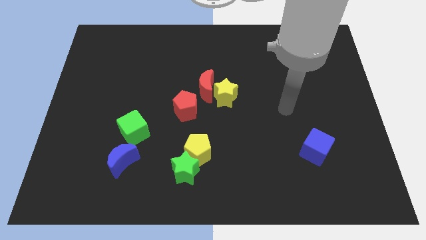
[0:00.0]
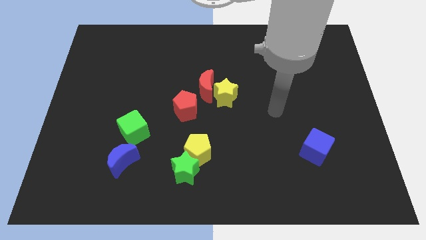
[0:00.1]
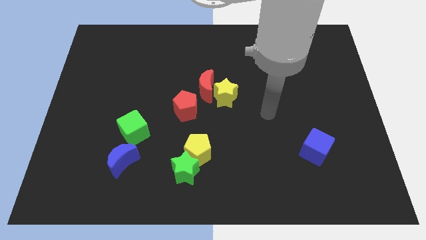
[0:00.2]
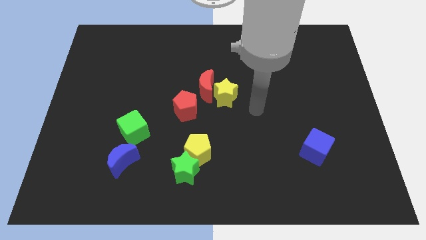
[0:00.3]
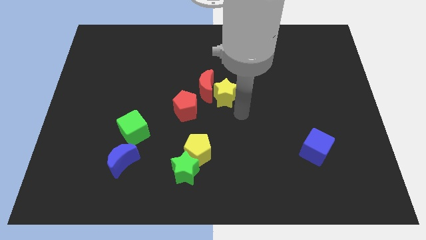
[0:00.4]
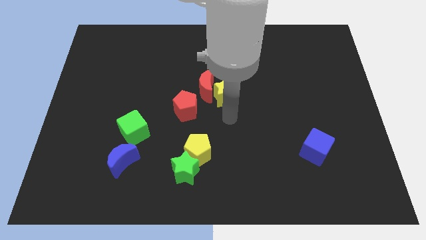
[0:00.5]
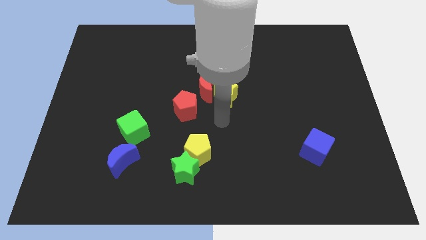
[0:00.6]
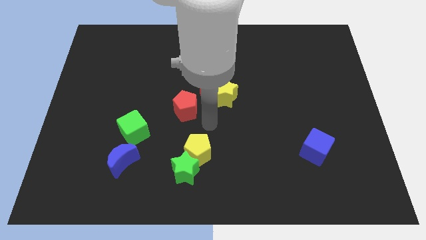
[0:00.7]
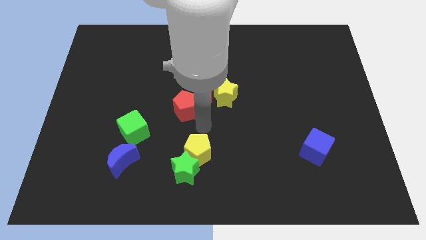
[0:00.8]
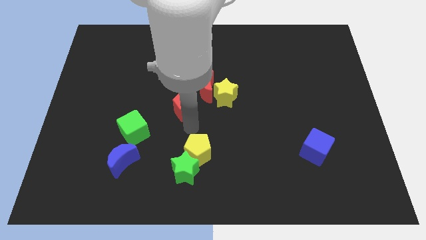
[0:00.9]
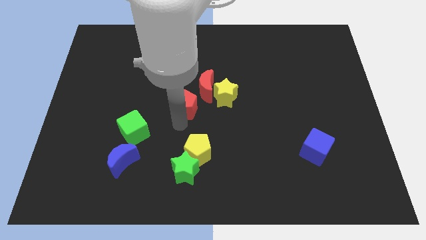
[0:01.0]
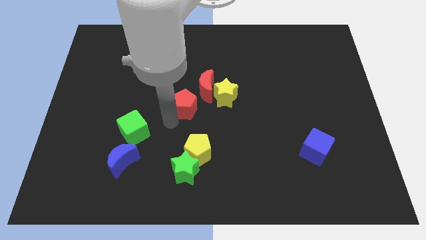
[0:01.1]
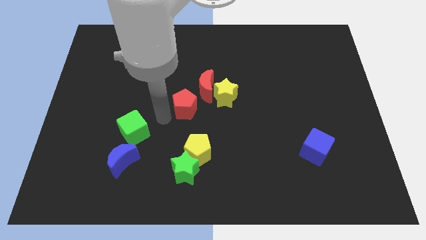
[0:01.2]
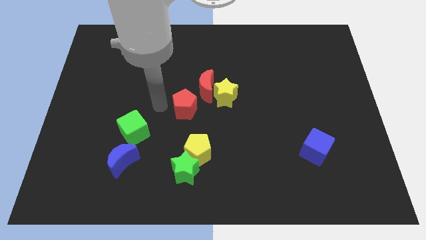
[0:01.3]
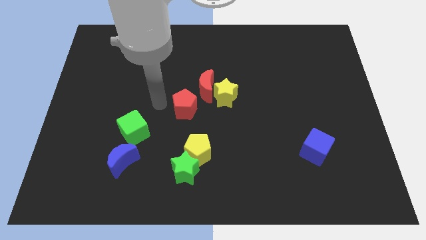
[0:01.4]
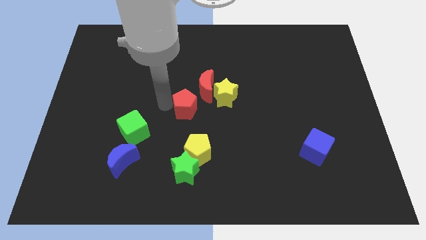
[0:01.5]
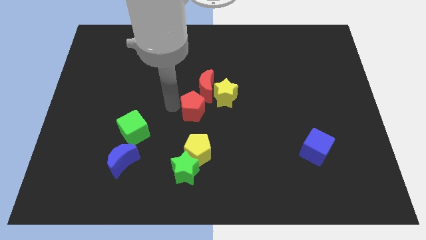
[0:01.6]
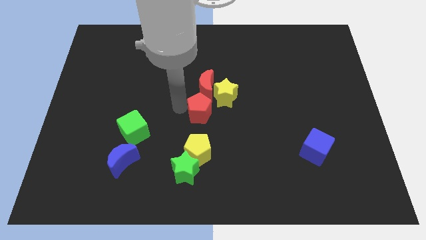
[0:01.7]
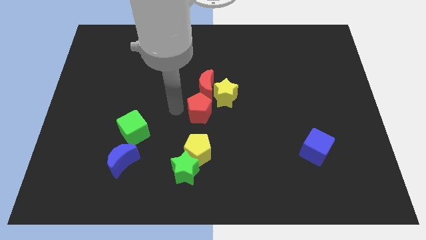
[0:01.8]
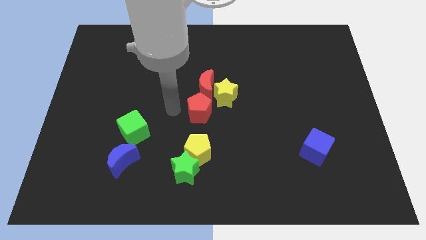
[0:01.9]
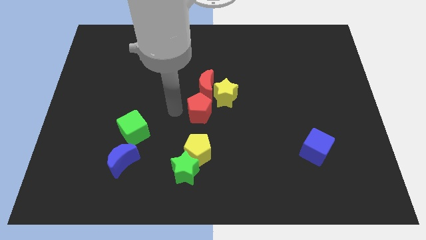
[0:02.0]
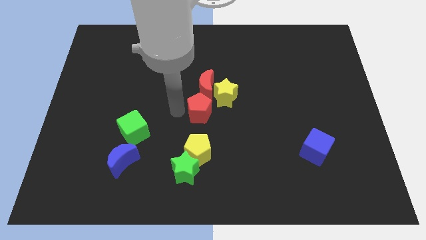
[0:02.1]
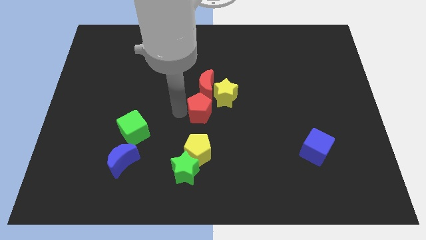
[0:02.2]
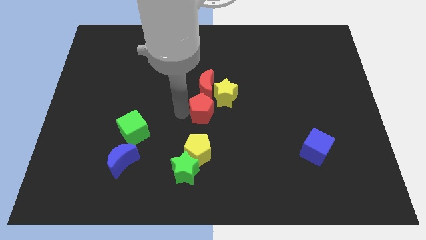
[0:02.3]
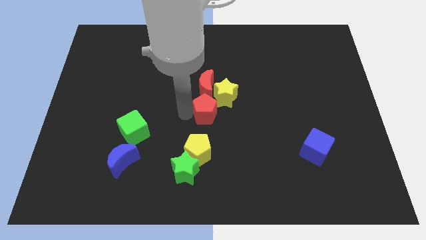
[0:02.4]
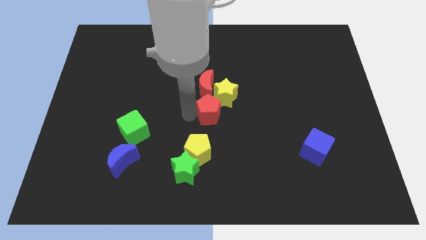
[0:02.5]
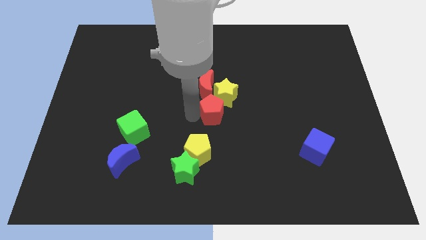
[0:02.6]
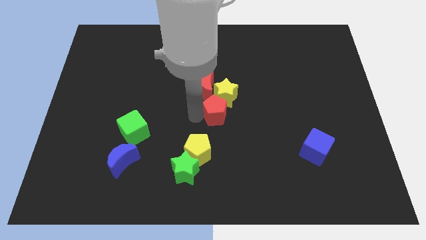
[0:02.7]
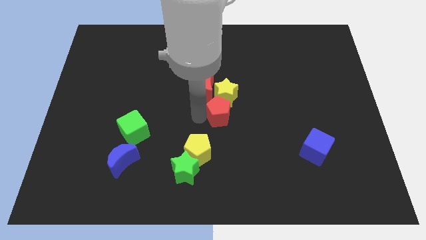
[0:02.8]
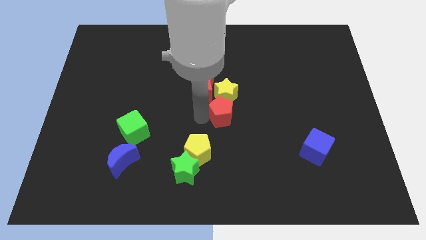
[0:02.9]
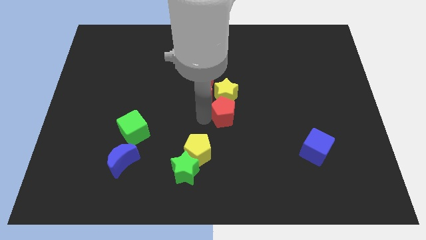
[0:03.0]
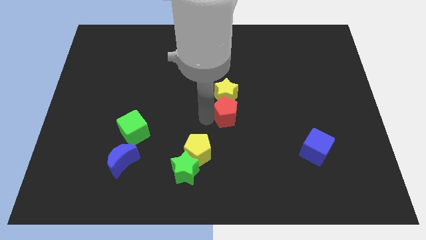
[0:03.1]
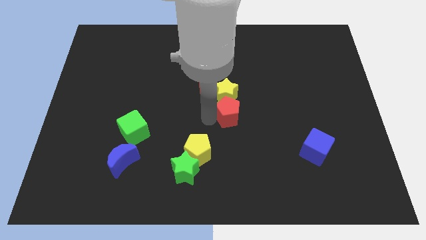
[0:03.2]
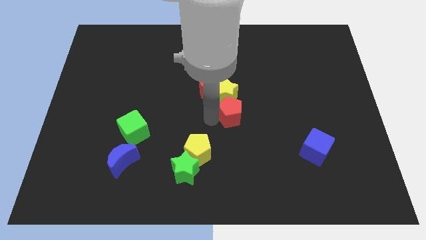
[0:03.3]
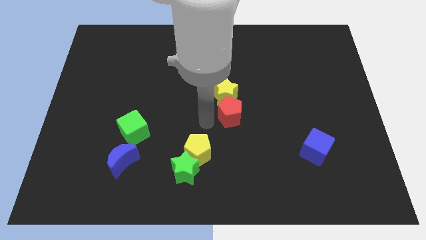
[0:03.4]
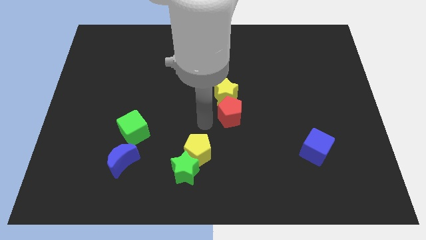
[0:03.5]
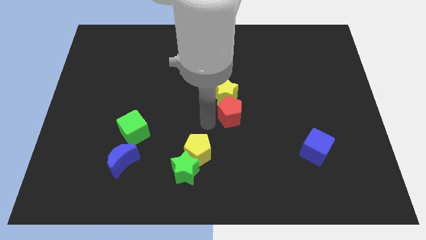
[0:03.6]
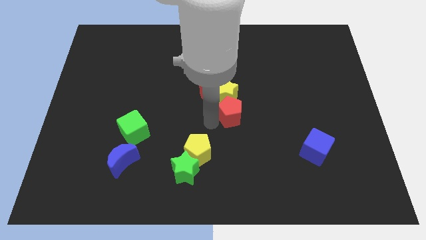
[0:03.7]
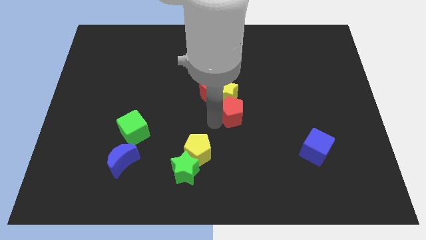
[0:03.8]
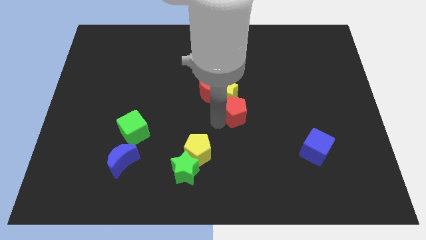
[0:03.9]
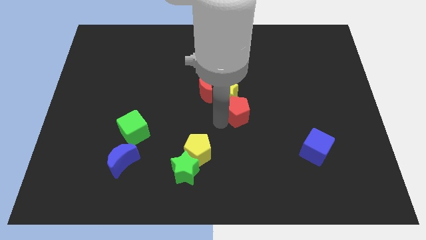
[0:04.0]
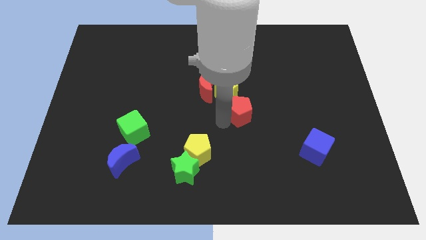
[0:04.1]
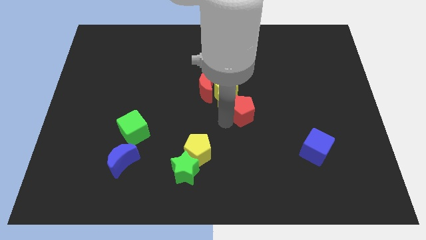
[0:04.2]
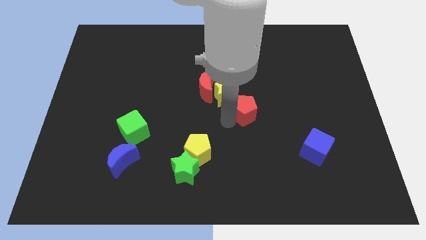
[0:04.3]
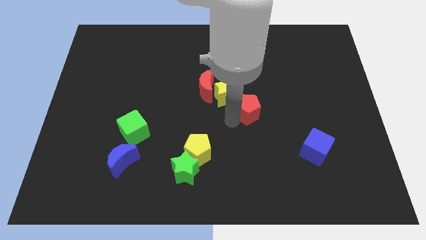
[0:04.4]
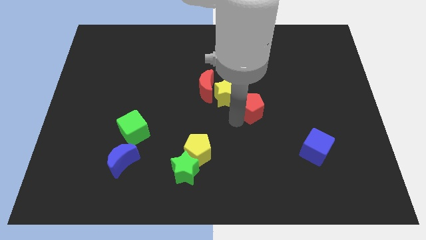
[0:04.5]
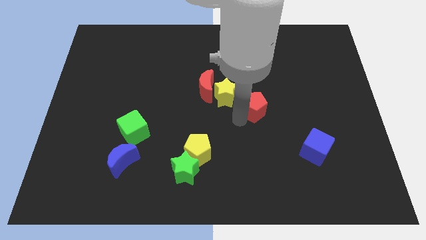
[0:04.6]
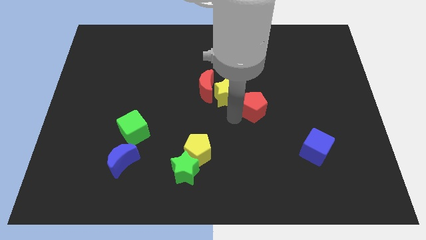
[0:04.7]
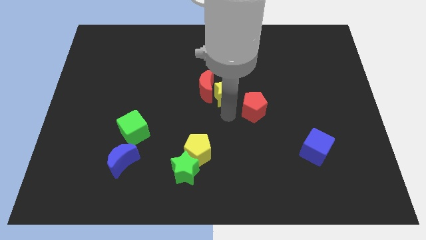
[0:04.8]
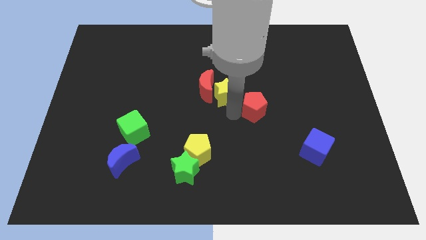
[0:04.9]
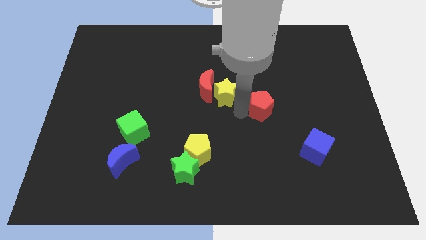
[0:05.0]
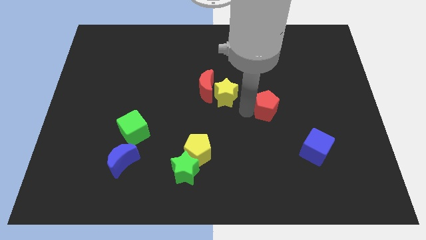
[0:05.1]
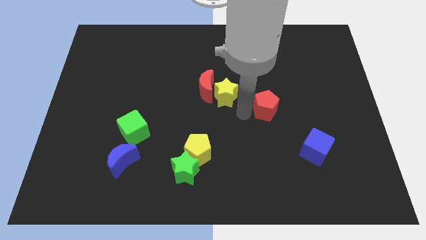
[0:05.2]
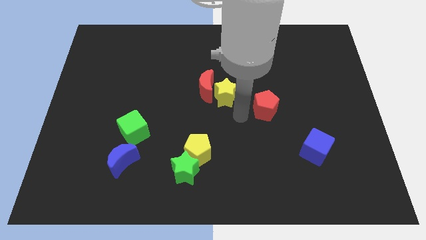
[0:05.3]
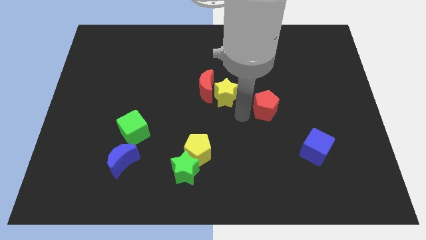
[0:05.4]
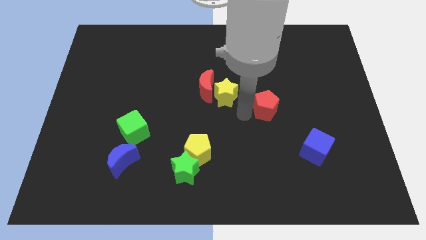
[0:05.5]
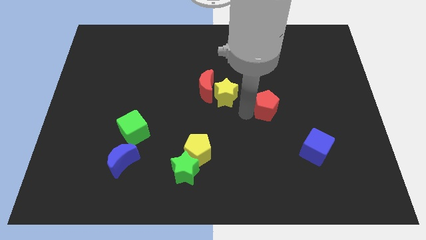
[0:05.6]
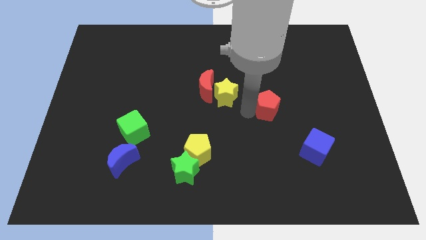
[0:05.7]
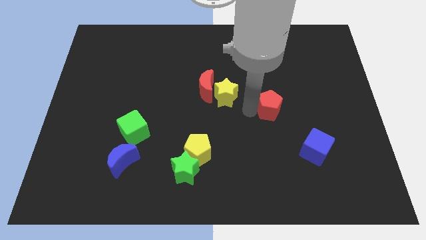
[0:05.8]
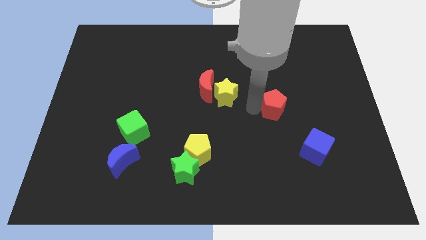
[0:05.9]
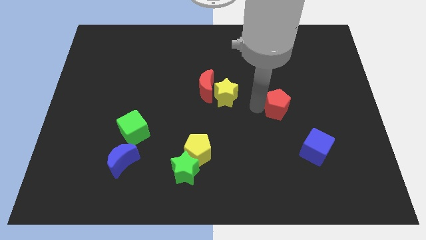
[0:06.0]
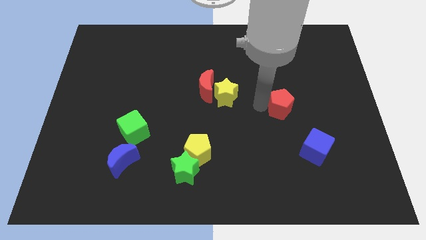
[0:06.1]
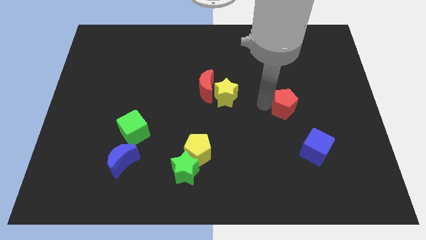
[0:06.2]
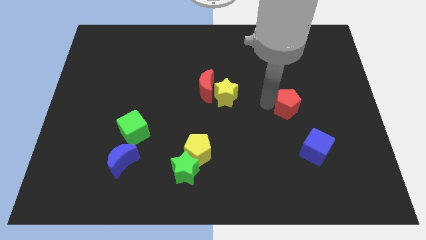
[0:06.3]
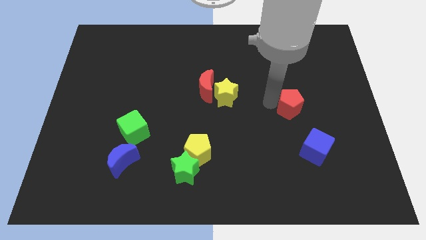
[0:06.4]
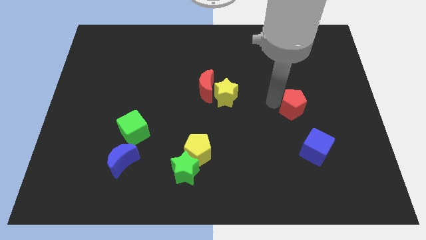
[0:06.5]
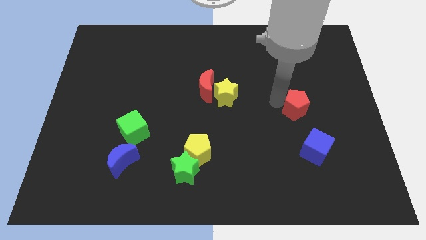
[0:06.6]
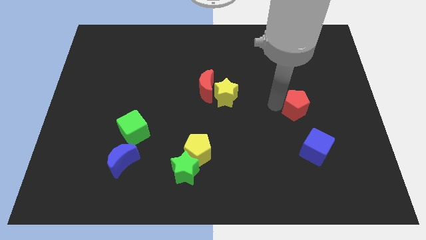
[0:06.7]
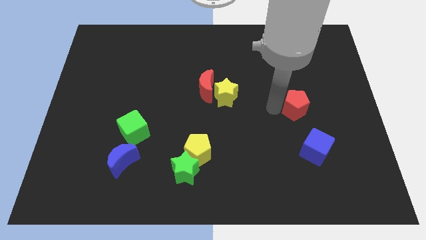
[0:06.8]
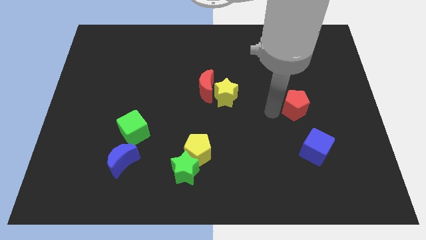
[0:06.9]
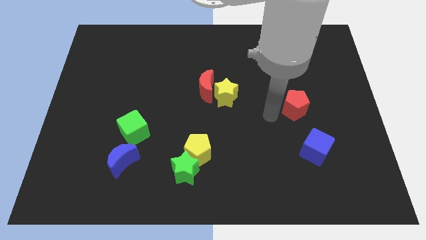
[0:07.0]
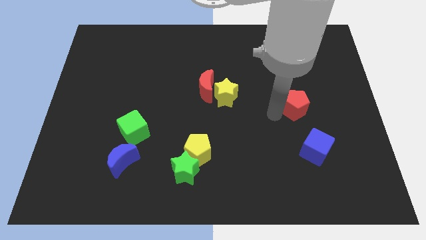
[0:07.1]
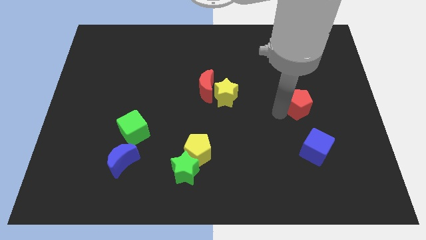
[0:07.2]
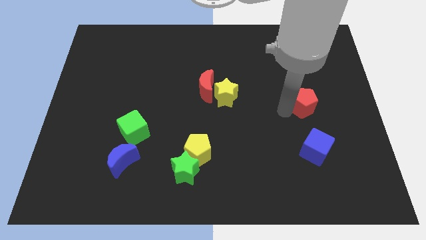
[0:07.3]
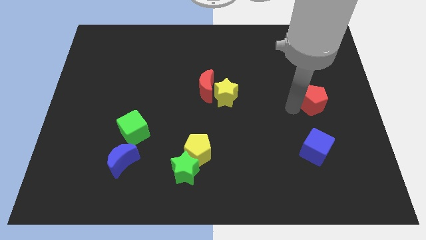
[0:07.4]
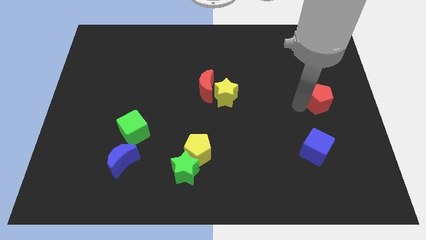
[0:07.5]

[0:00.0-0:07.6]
move the red pentagon to the right side of the board
